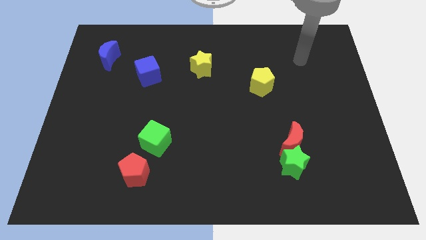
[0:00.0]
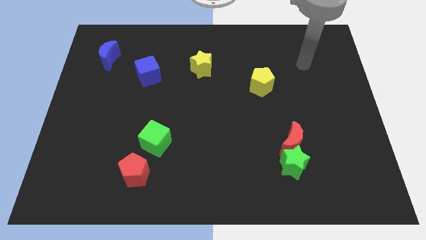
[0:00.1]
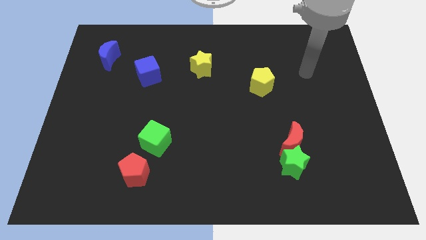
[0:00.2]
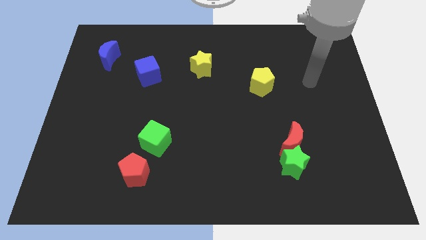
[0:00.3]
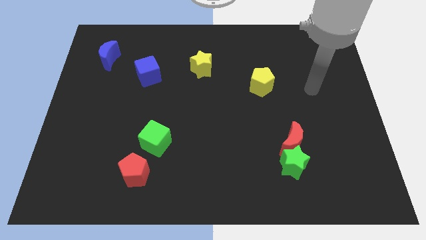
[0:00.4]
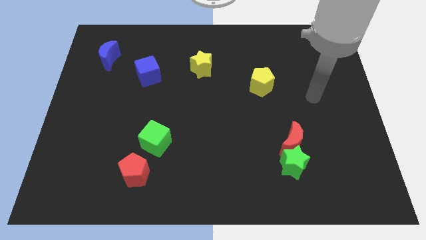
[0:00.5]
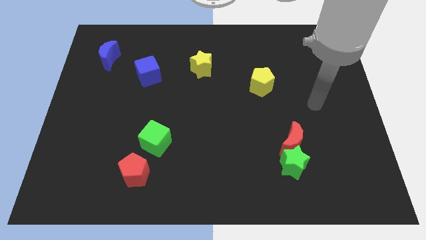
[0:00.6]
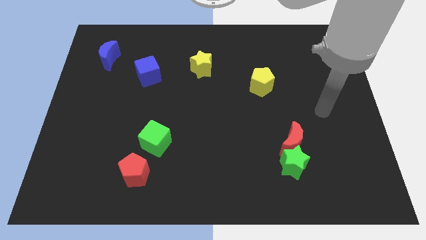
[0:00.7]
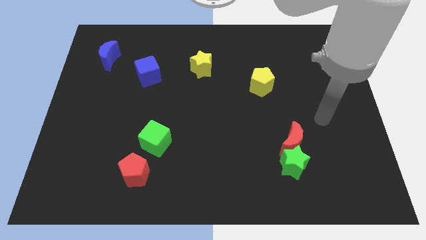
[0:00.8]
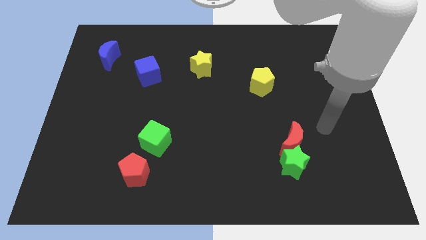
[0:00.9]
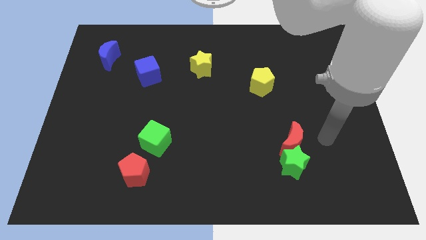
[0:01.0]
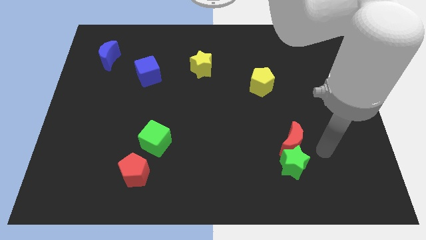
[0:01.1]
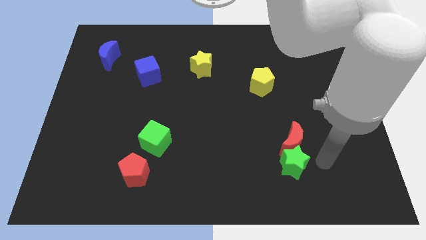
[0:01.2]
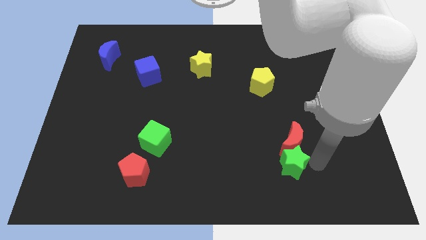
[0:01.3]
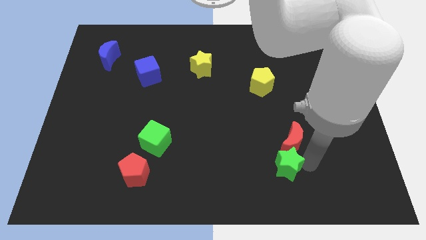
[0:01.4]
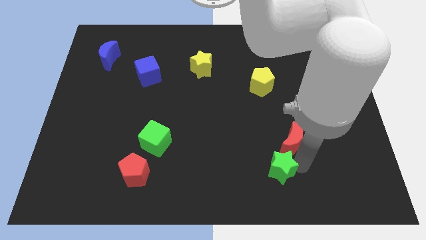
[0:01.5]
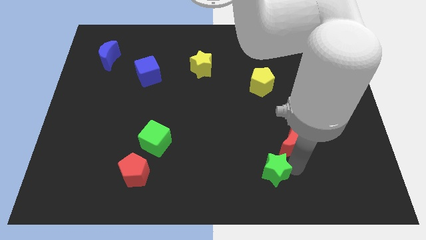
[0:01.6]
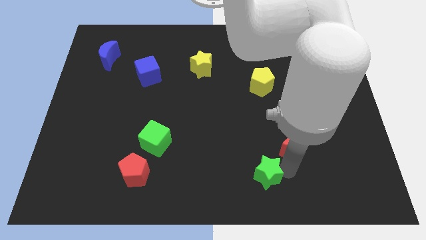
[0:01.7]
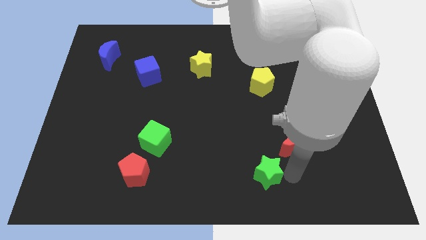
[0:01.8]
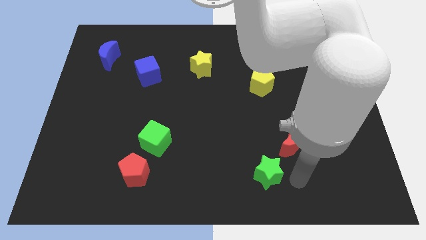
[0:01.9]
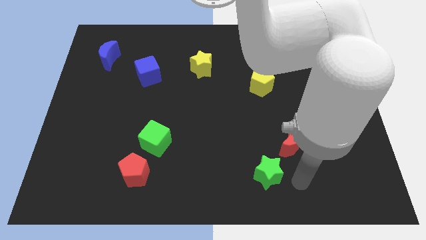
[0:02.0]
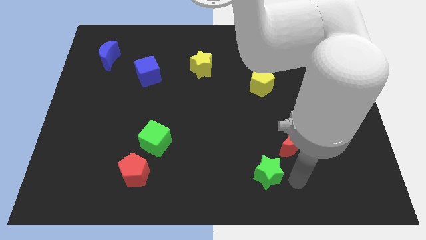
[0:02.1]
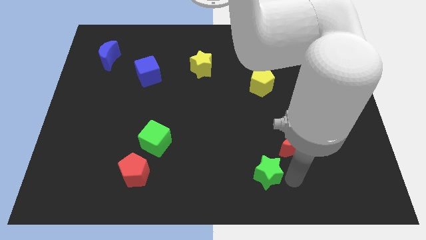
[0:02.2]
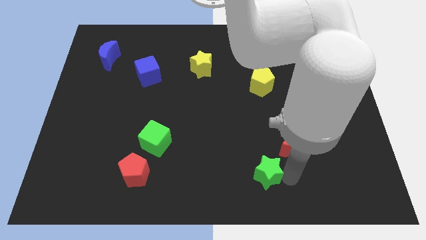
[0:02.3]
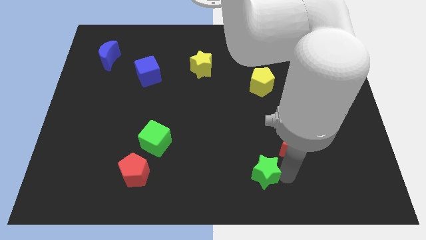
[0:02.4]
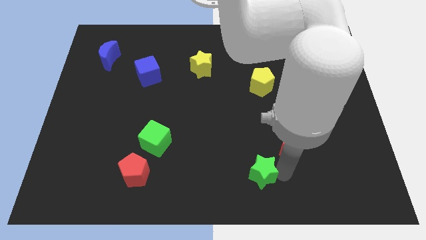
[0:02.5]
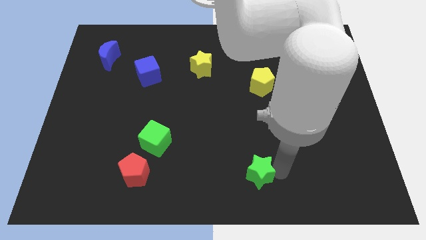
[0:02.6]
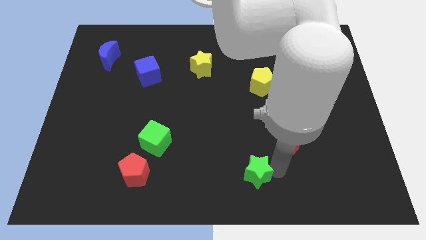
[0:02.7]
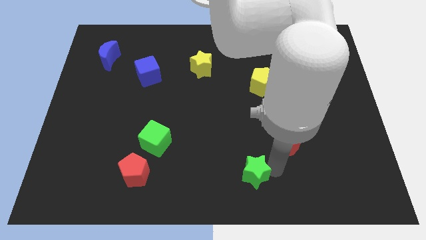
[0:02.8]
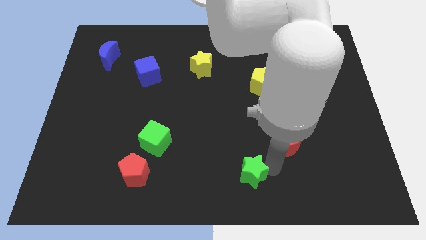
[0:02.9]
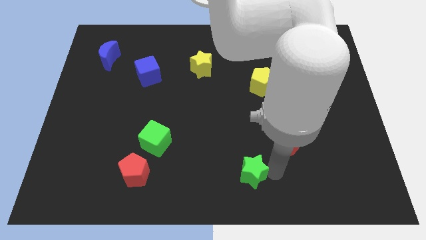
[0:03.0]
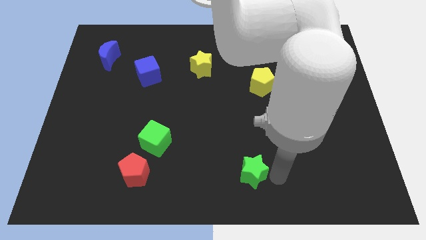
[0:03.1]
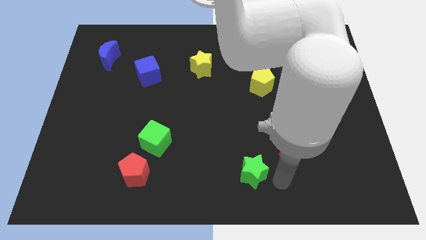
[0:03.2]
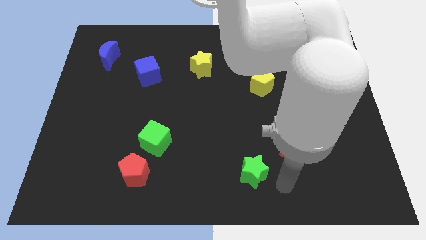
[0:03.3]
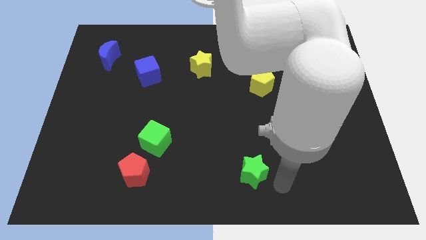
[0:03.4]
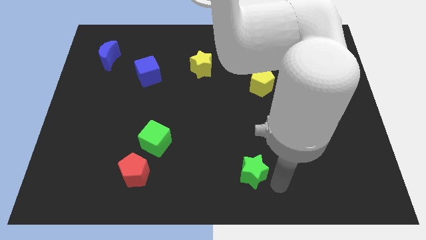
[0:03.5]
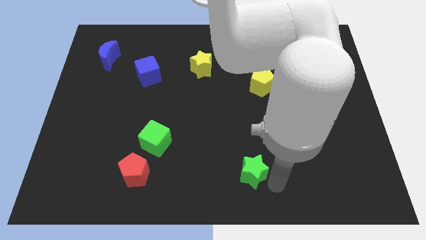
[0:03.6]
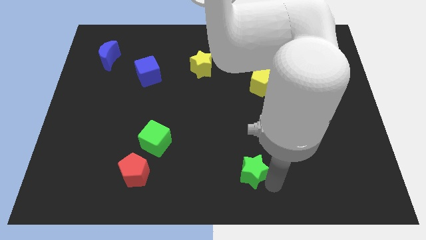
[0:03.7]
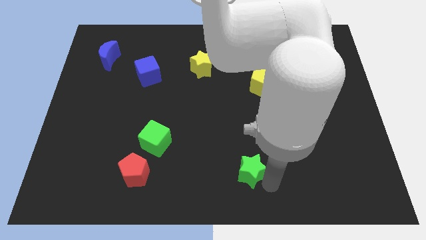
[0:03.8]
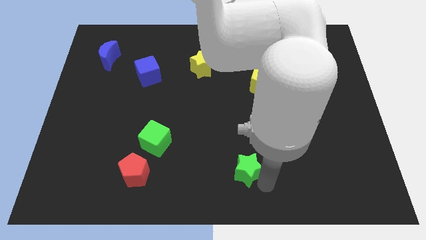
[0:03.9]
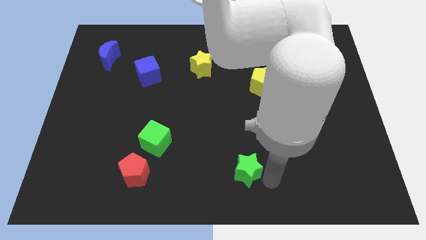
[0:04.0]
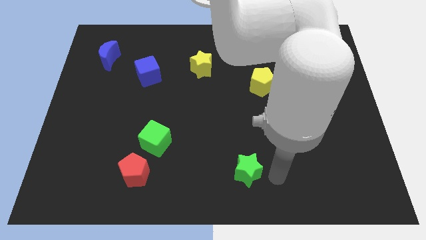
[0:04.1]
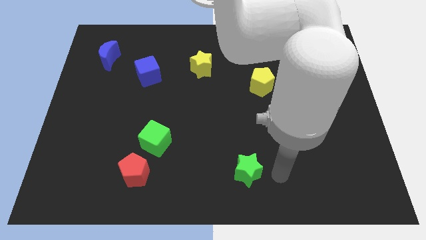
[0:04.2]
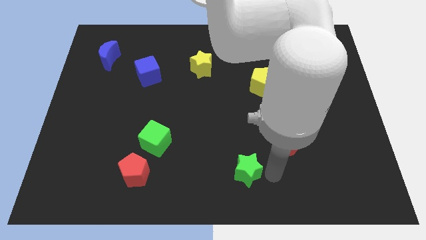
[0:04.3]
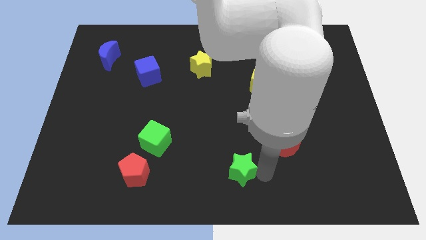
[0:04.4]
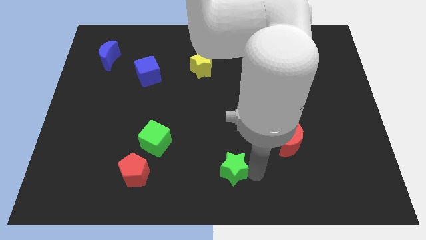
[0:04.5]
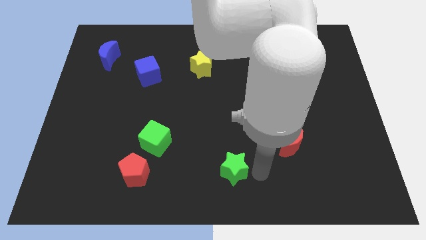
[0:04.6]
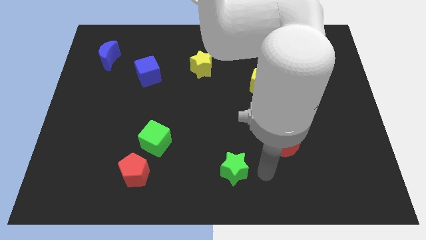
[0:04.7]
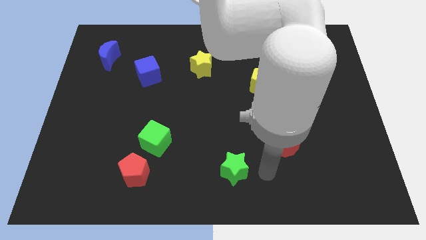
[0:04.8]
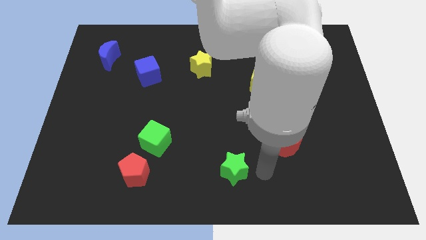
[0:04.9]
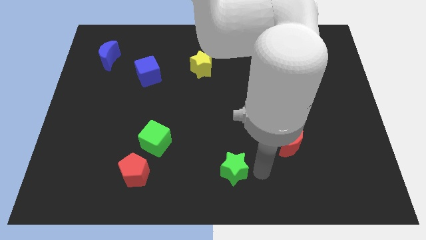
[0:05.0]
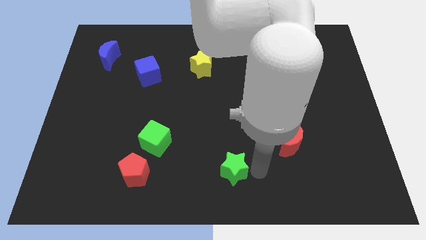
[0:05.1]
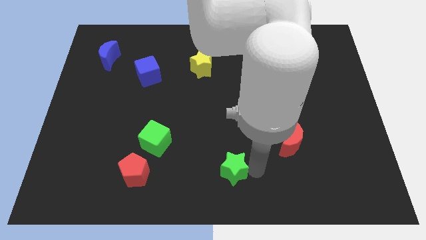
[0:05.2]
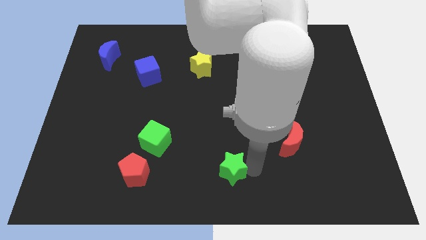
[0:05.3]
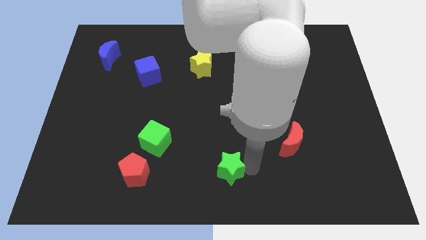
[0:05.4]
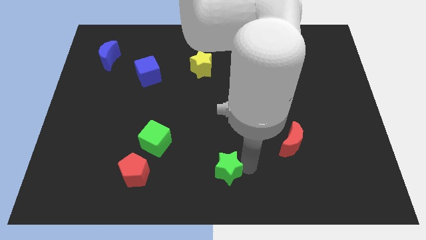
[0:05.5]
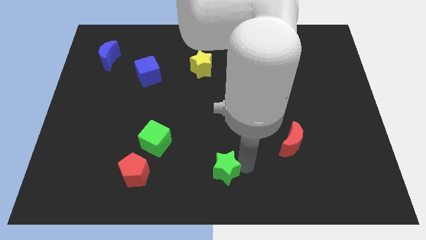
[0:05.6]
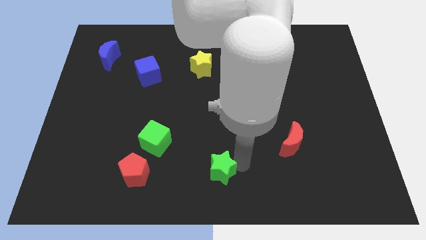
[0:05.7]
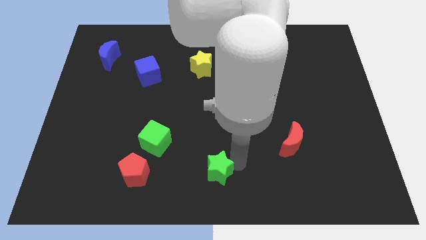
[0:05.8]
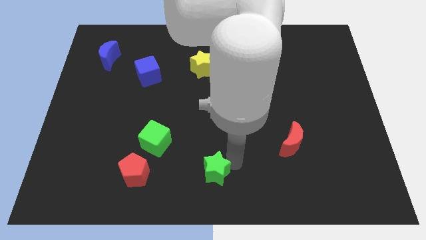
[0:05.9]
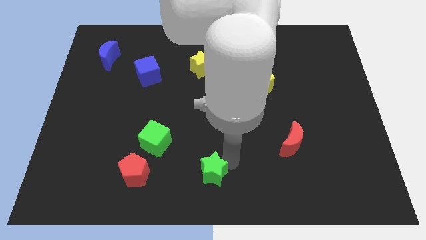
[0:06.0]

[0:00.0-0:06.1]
put the green star to the right of the red pentagon

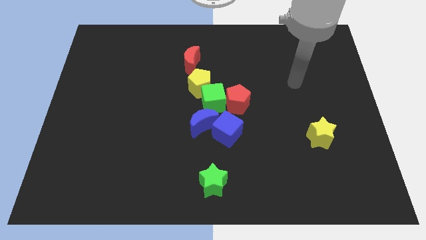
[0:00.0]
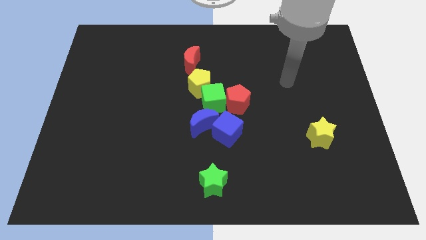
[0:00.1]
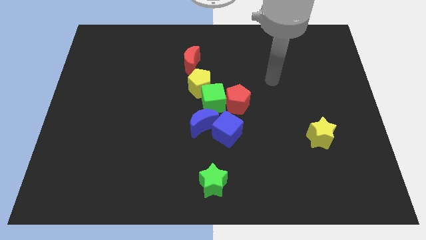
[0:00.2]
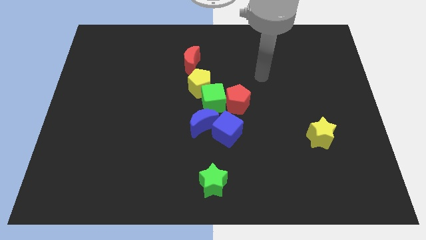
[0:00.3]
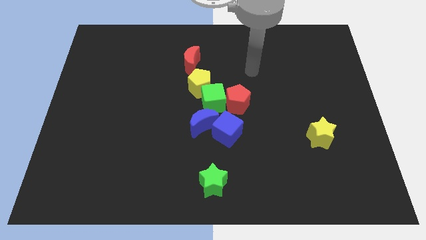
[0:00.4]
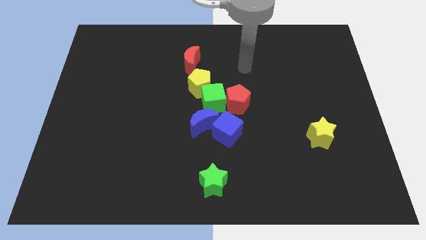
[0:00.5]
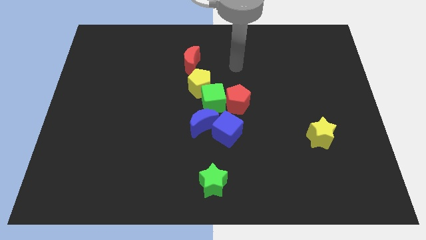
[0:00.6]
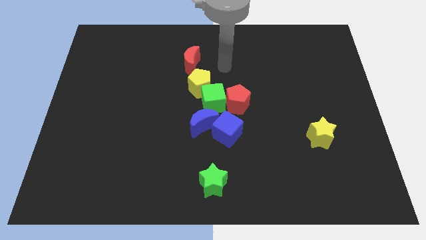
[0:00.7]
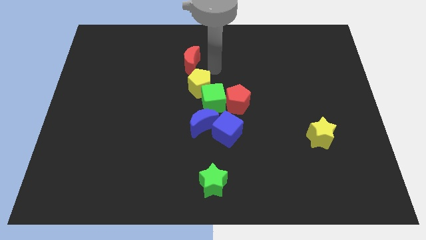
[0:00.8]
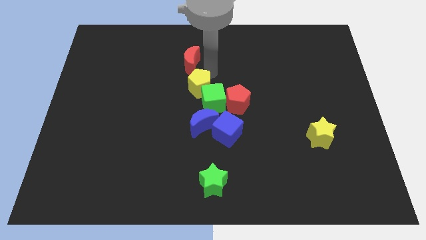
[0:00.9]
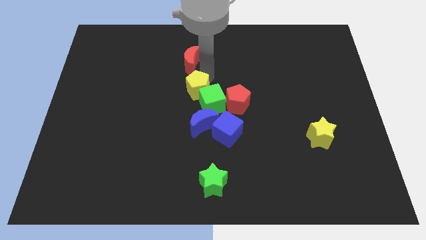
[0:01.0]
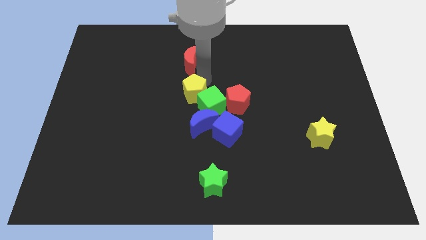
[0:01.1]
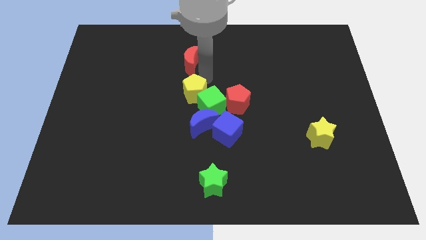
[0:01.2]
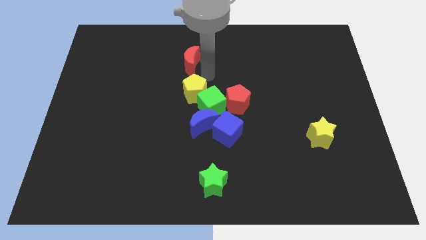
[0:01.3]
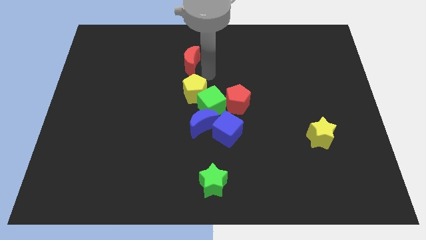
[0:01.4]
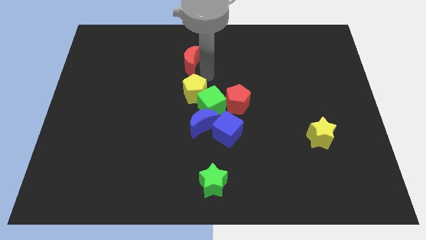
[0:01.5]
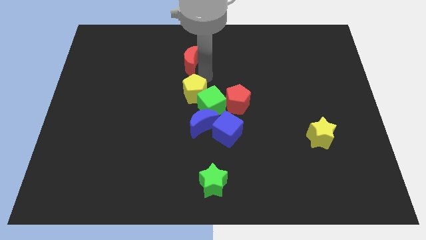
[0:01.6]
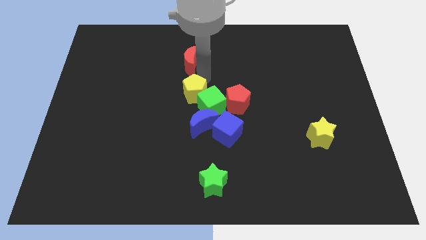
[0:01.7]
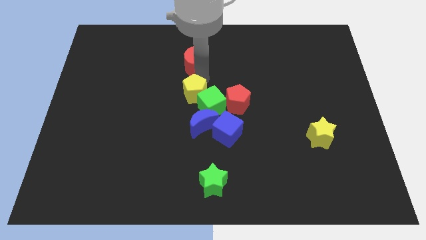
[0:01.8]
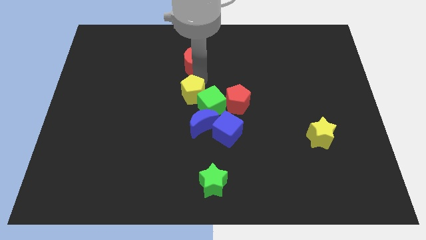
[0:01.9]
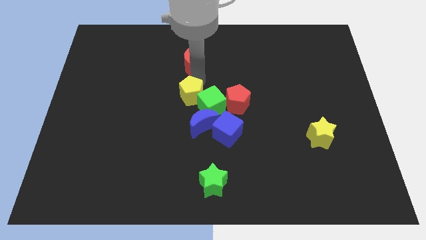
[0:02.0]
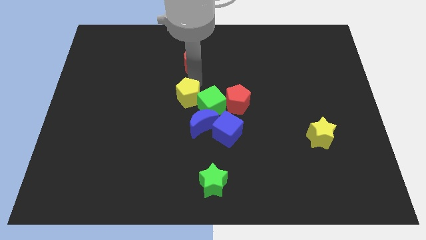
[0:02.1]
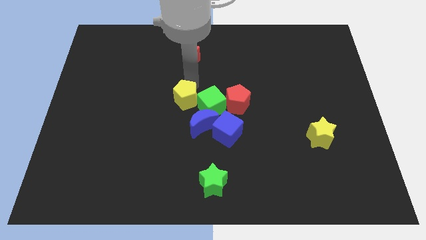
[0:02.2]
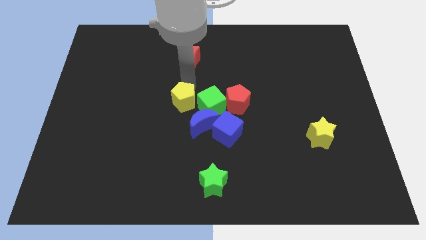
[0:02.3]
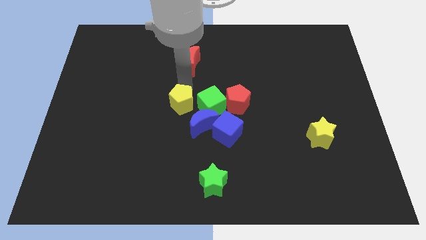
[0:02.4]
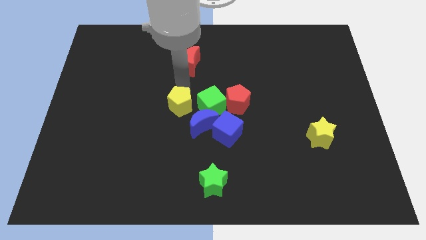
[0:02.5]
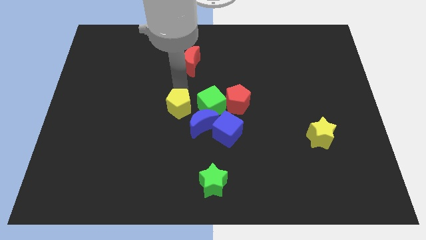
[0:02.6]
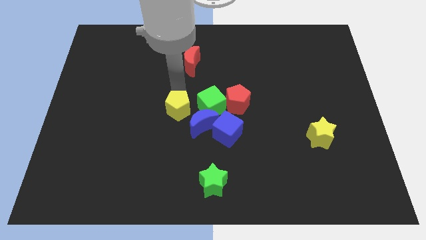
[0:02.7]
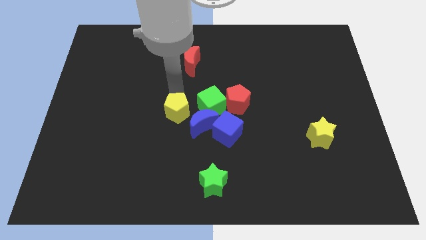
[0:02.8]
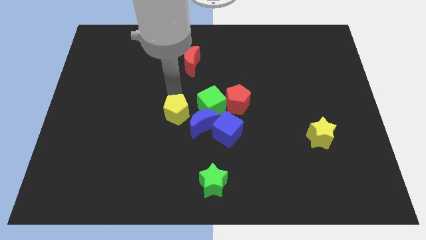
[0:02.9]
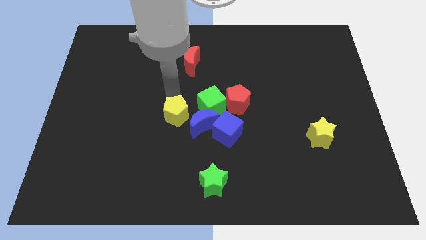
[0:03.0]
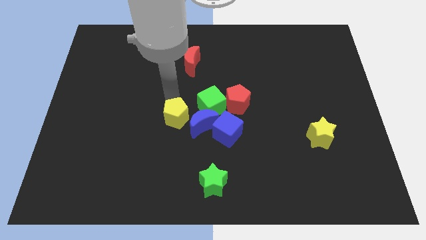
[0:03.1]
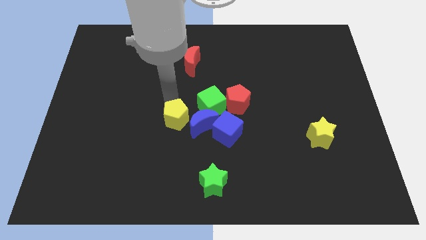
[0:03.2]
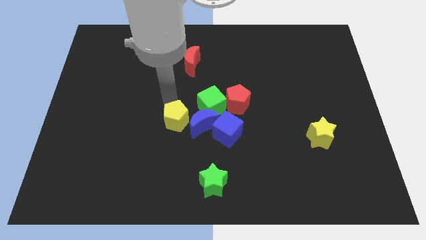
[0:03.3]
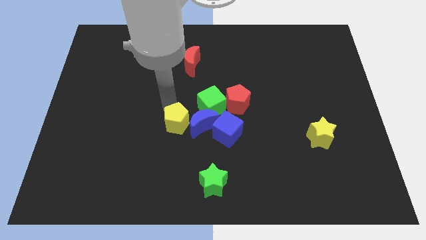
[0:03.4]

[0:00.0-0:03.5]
push the yellow pentagon to the bottom left side of the blue moon
